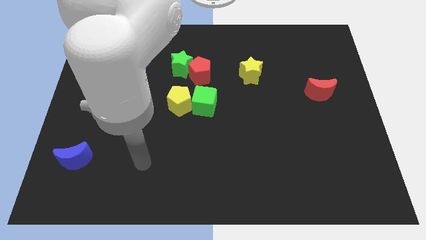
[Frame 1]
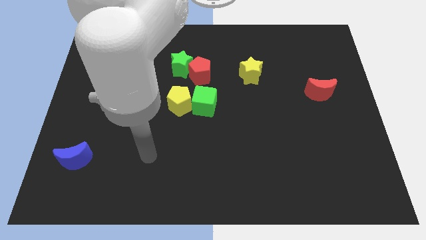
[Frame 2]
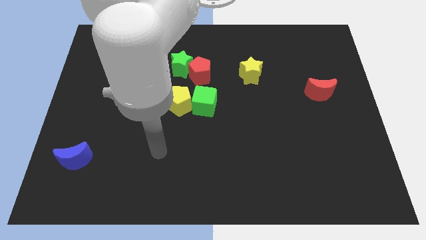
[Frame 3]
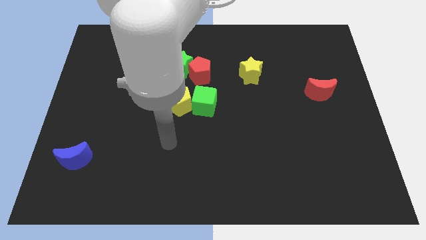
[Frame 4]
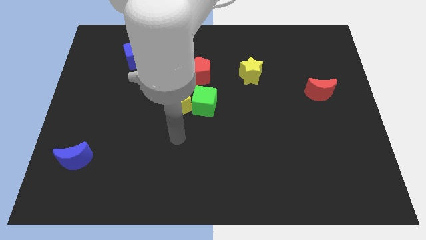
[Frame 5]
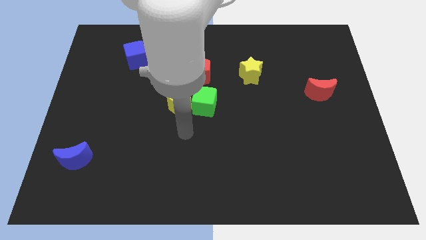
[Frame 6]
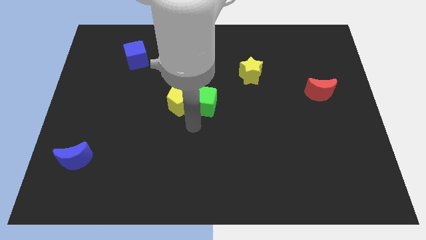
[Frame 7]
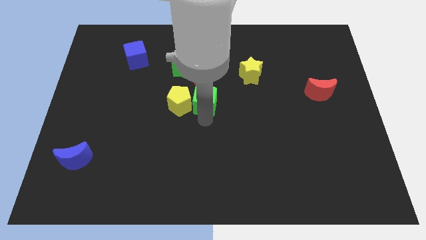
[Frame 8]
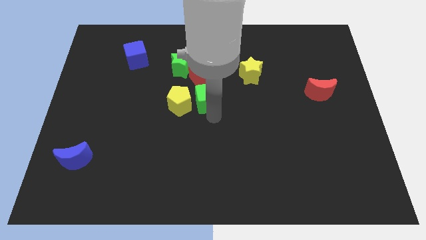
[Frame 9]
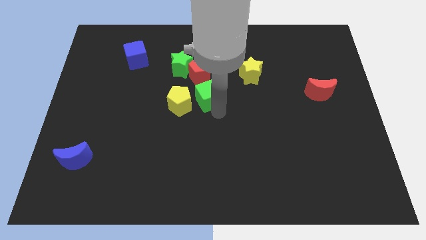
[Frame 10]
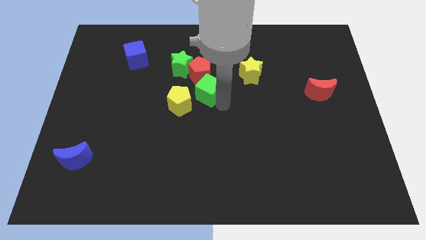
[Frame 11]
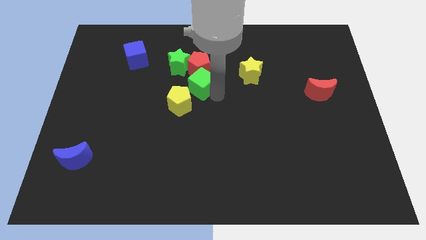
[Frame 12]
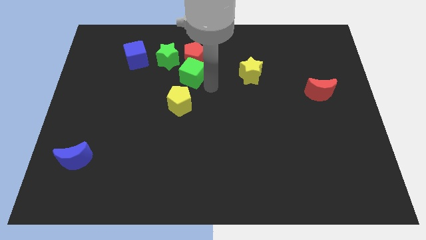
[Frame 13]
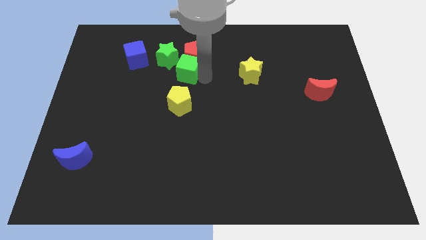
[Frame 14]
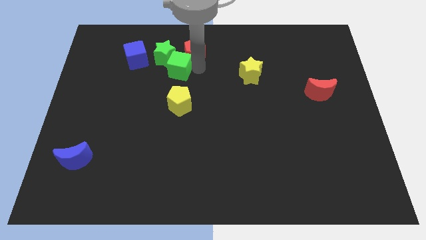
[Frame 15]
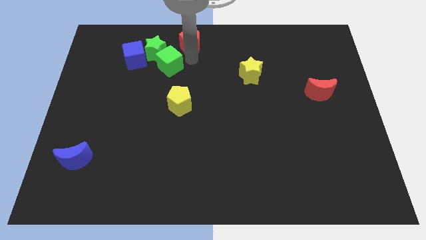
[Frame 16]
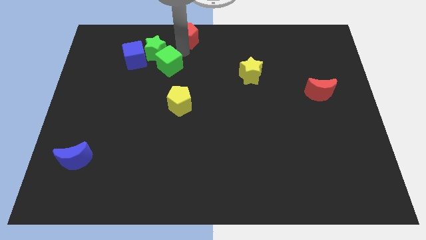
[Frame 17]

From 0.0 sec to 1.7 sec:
move the green star away from the red pentagon

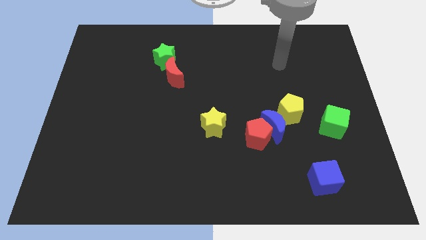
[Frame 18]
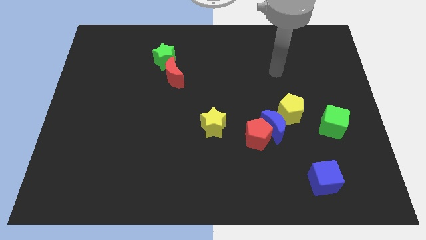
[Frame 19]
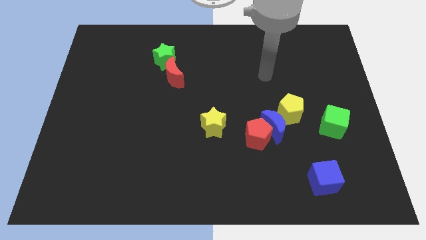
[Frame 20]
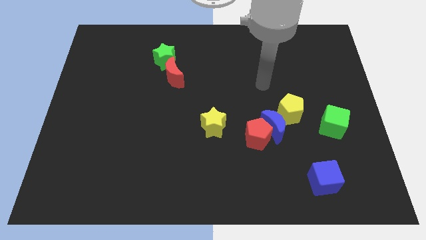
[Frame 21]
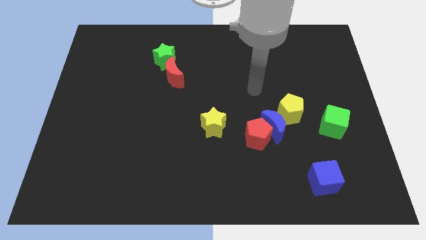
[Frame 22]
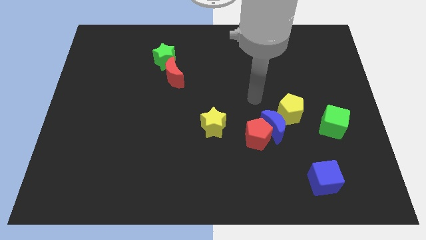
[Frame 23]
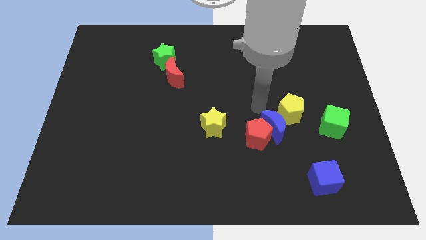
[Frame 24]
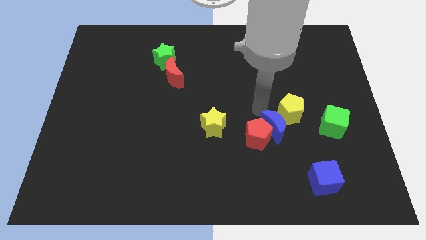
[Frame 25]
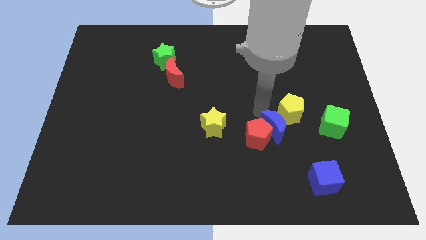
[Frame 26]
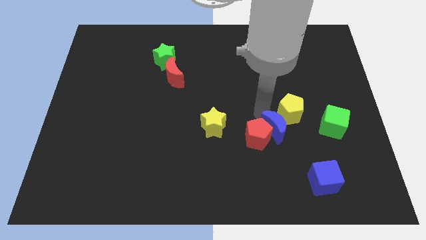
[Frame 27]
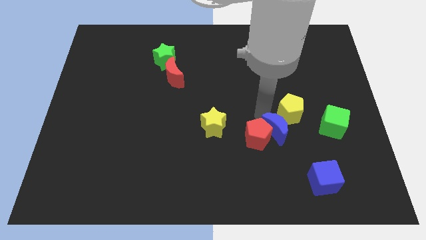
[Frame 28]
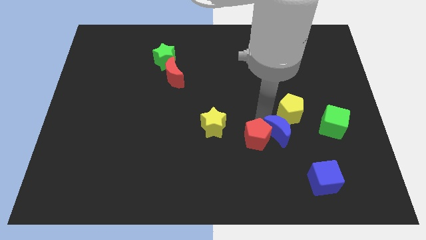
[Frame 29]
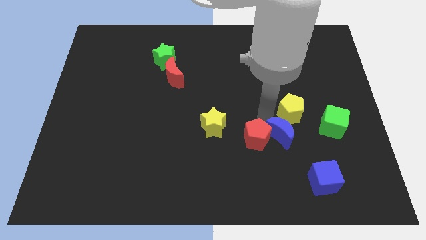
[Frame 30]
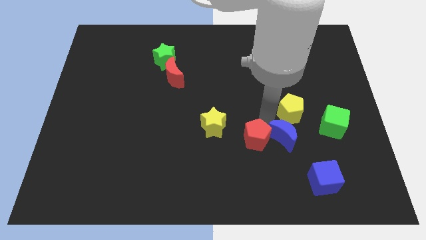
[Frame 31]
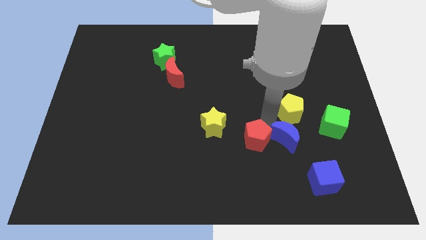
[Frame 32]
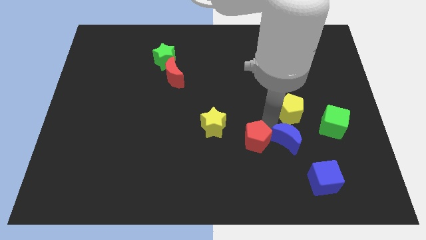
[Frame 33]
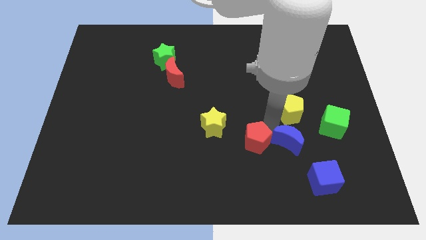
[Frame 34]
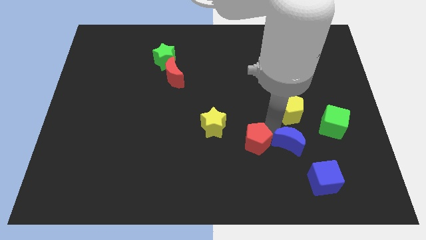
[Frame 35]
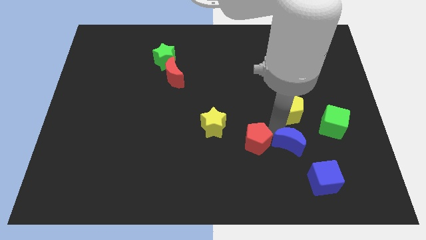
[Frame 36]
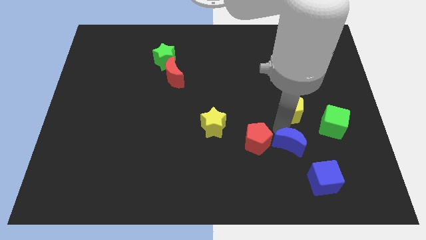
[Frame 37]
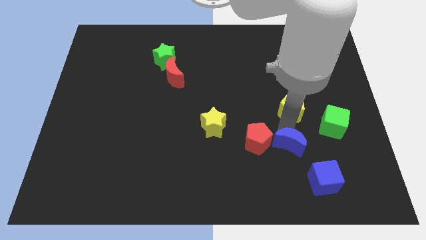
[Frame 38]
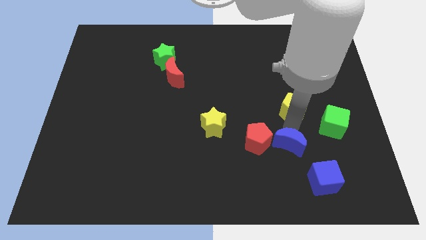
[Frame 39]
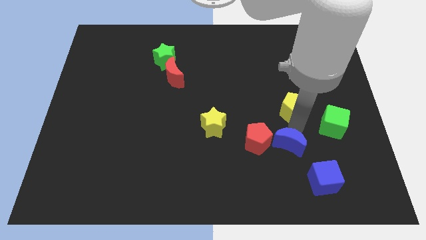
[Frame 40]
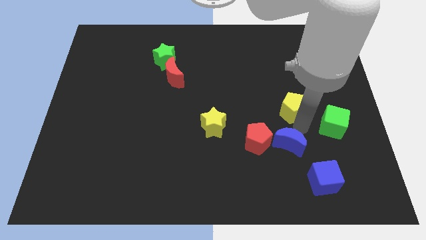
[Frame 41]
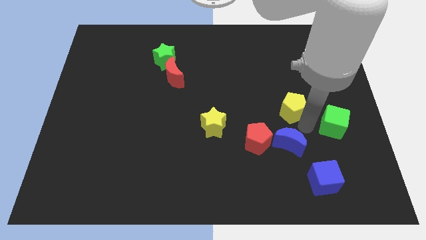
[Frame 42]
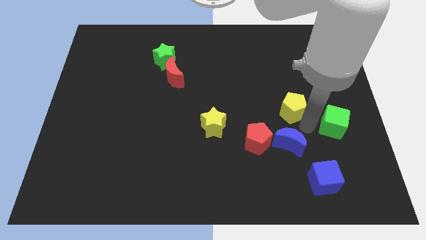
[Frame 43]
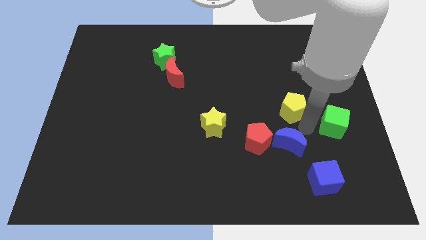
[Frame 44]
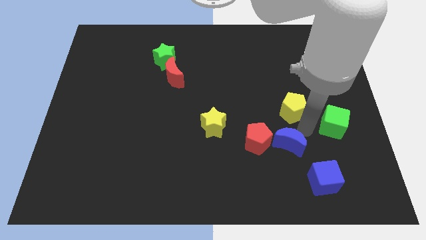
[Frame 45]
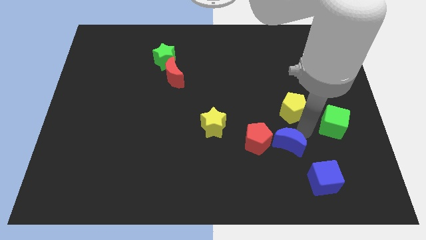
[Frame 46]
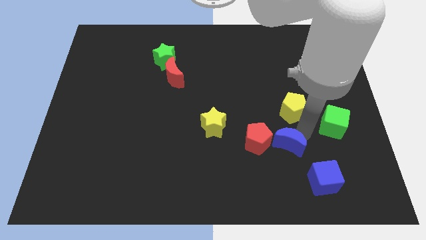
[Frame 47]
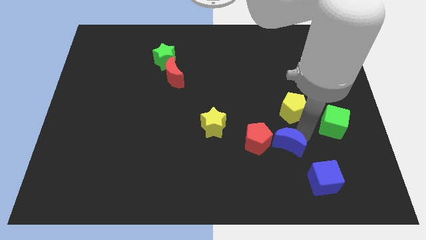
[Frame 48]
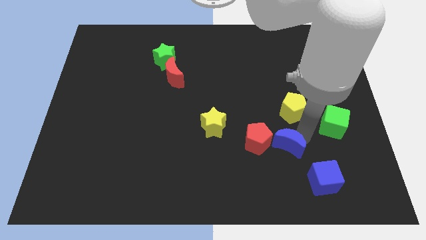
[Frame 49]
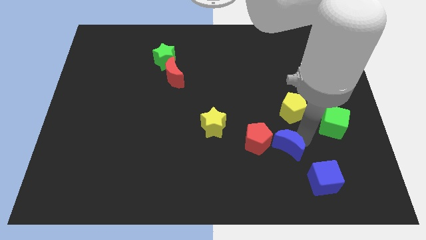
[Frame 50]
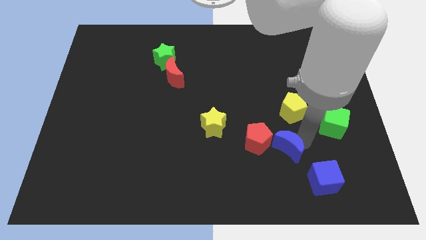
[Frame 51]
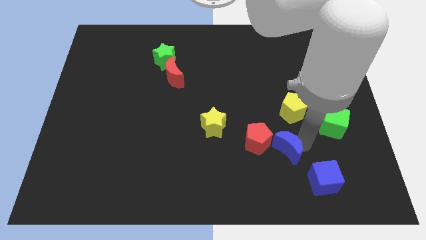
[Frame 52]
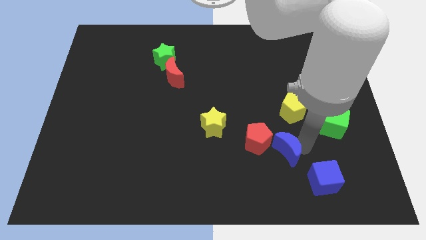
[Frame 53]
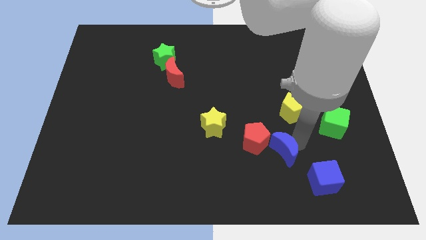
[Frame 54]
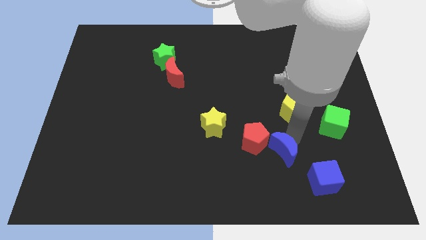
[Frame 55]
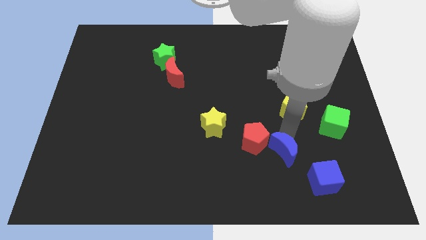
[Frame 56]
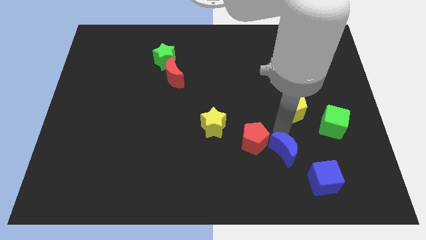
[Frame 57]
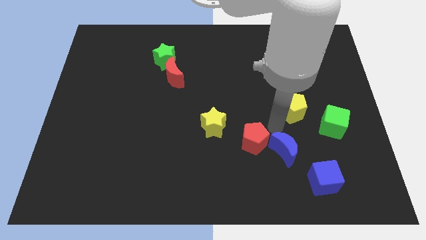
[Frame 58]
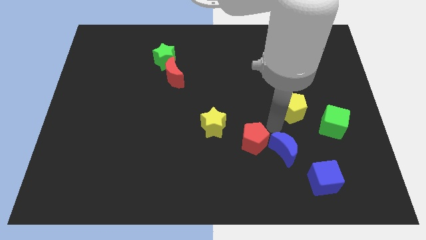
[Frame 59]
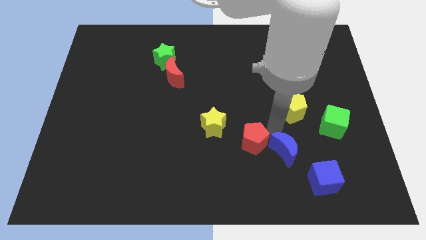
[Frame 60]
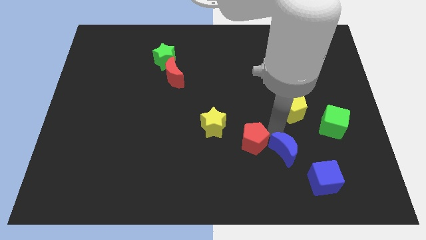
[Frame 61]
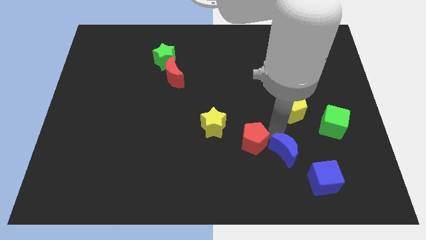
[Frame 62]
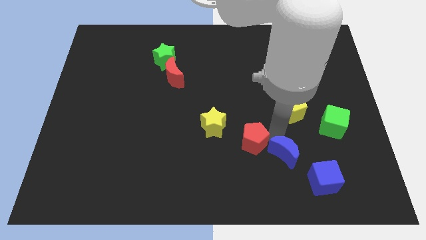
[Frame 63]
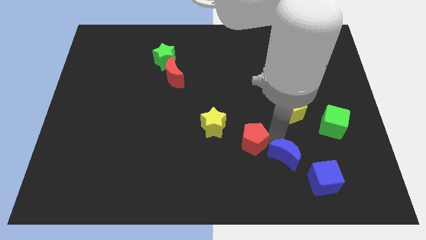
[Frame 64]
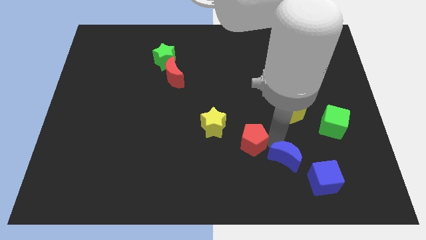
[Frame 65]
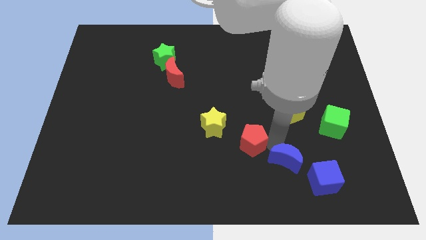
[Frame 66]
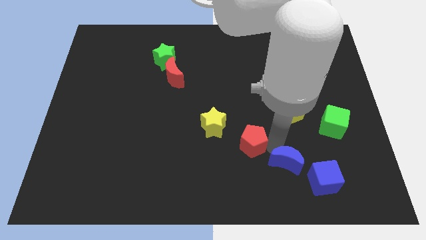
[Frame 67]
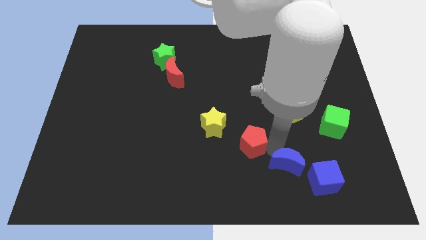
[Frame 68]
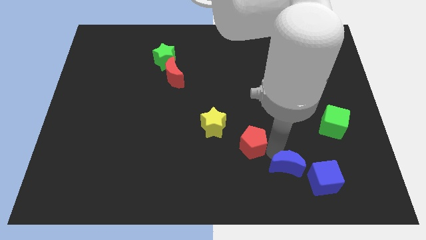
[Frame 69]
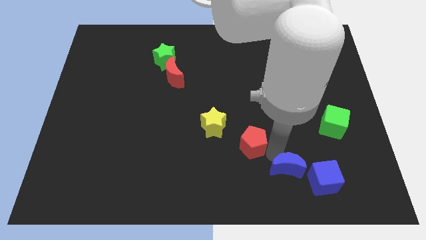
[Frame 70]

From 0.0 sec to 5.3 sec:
pull the blue moon apart from the red pentagon and yellow pentagon

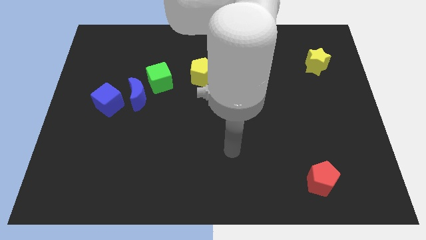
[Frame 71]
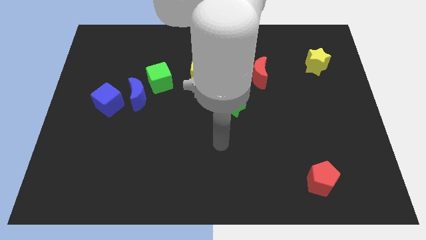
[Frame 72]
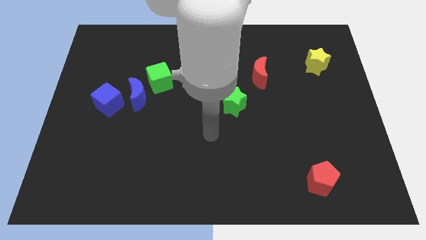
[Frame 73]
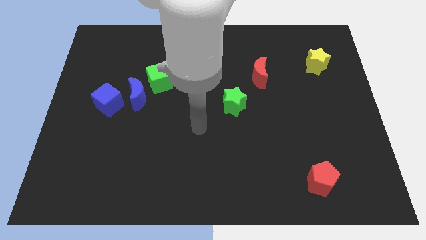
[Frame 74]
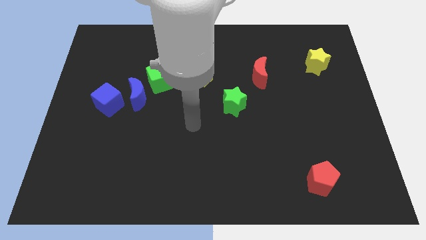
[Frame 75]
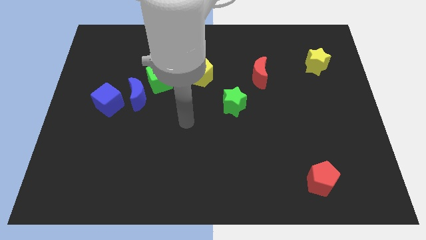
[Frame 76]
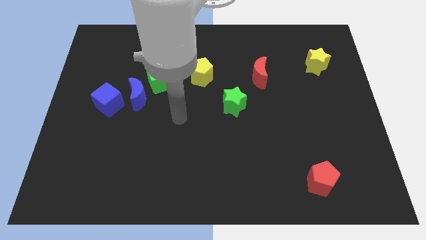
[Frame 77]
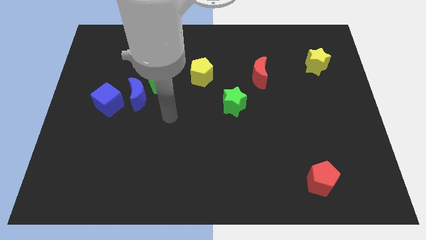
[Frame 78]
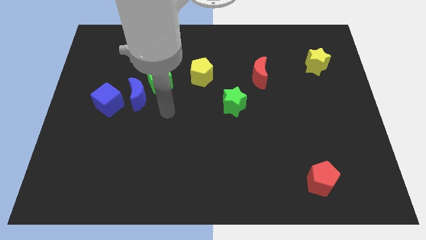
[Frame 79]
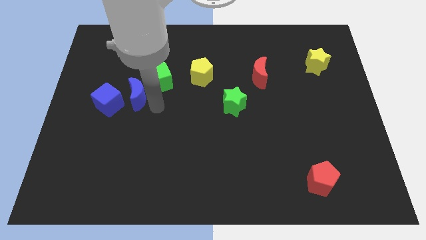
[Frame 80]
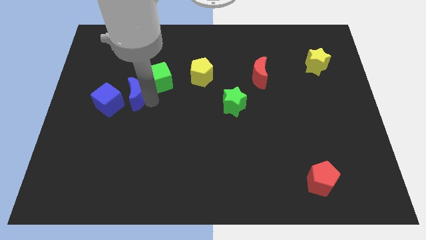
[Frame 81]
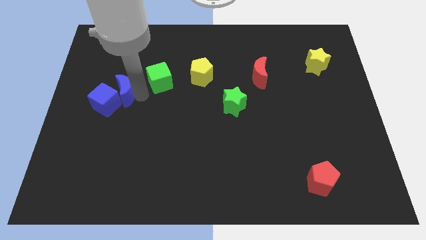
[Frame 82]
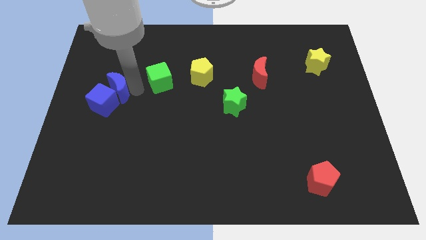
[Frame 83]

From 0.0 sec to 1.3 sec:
separate the green cube from the blue moon

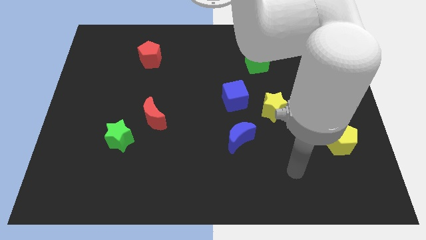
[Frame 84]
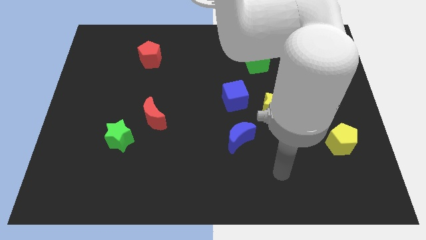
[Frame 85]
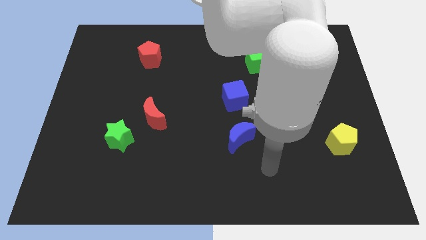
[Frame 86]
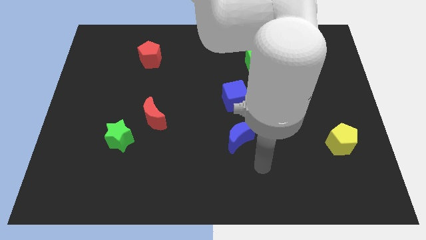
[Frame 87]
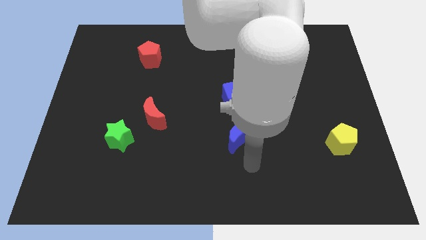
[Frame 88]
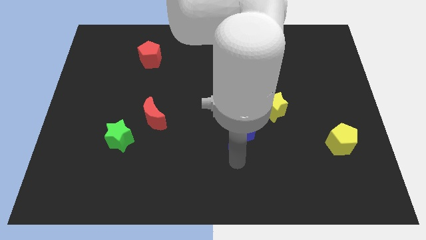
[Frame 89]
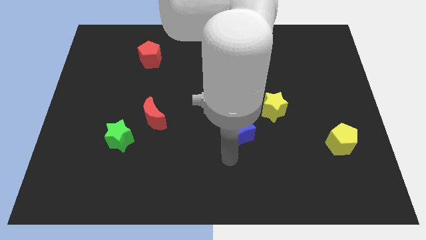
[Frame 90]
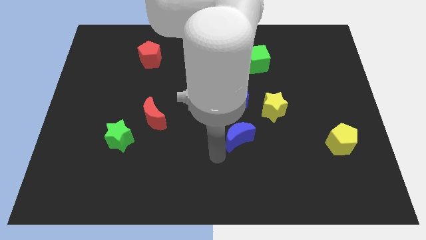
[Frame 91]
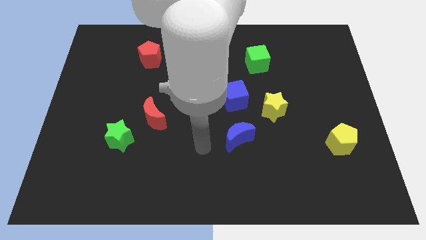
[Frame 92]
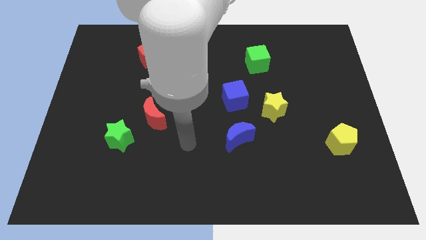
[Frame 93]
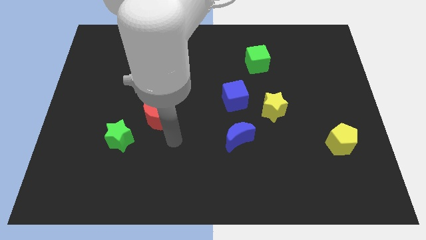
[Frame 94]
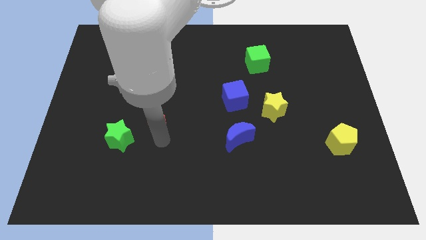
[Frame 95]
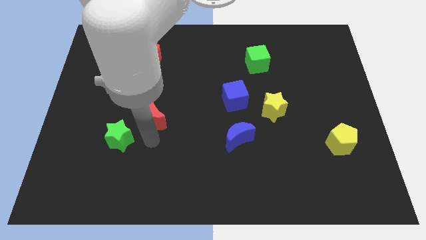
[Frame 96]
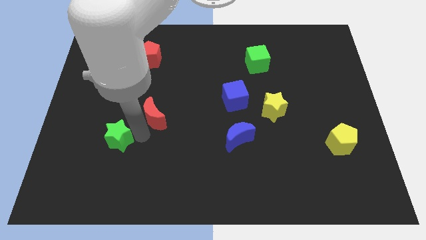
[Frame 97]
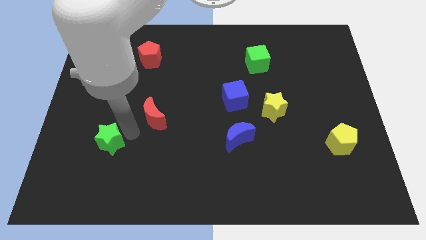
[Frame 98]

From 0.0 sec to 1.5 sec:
separate the red moon from the green star
